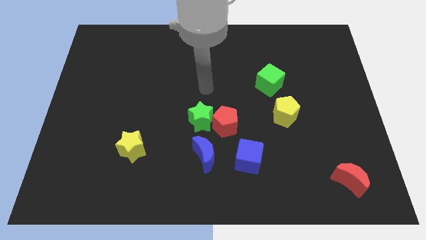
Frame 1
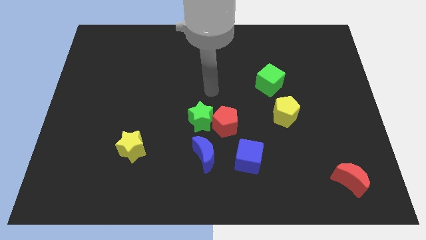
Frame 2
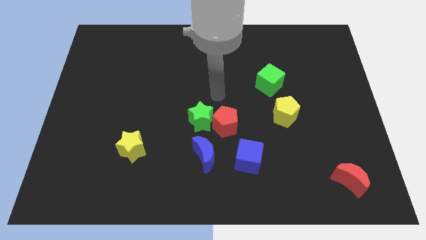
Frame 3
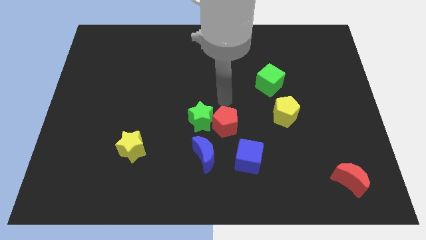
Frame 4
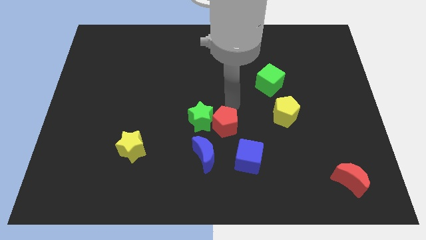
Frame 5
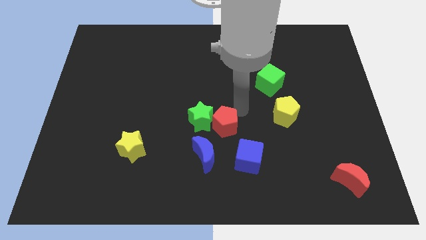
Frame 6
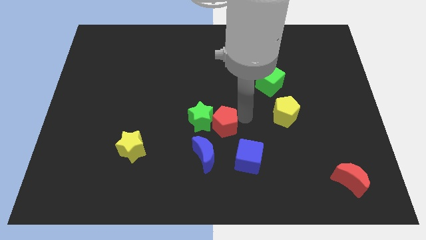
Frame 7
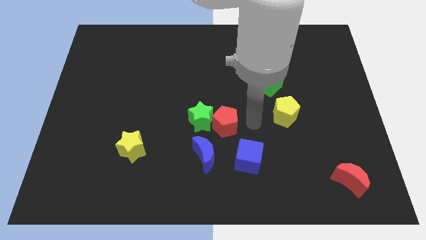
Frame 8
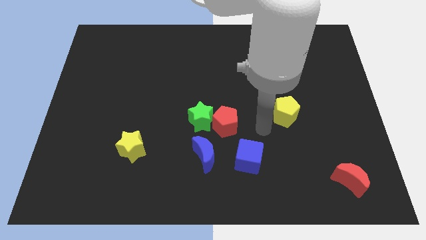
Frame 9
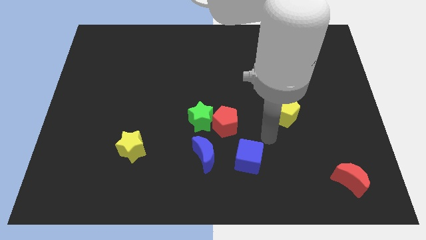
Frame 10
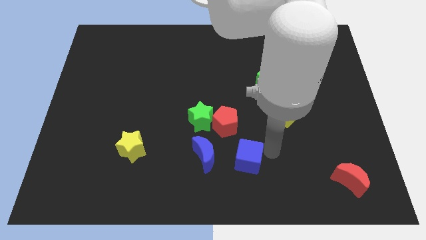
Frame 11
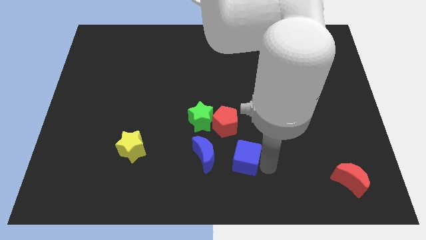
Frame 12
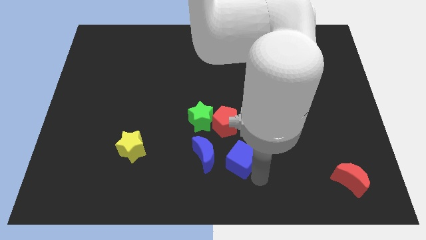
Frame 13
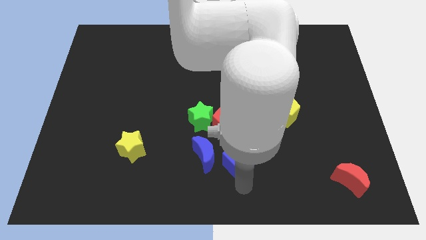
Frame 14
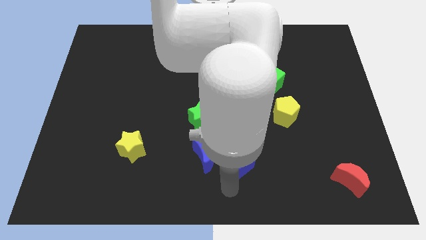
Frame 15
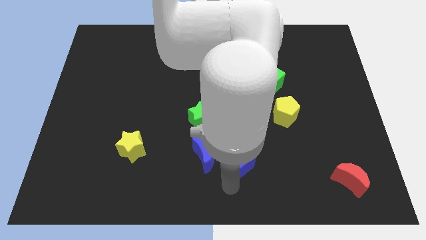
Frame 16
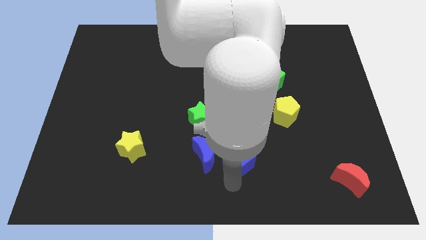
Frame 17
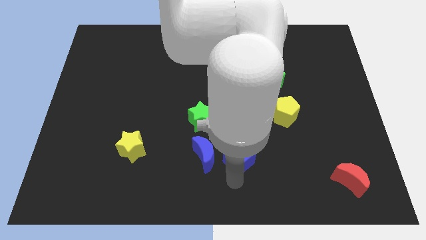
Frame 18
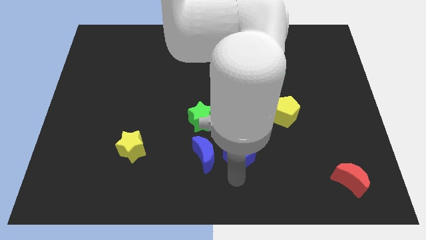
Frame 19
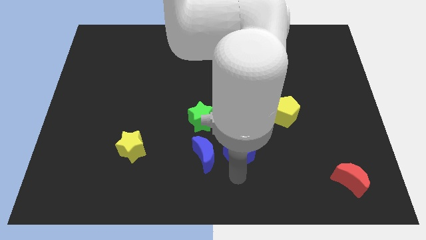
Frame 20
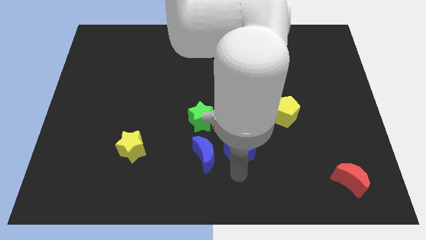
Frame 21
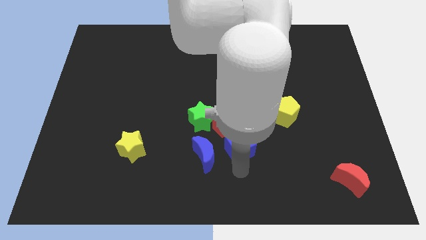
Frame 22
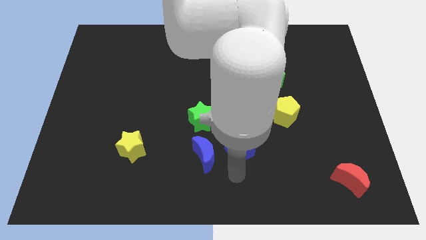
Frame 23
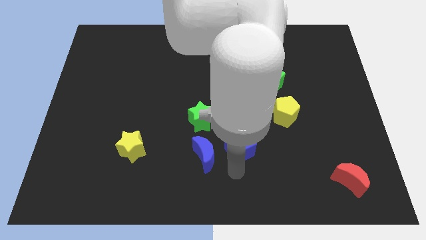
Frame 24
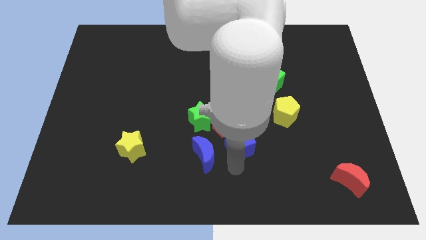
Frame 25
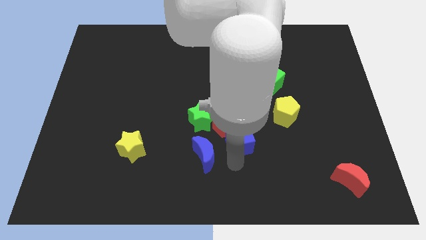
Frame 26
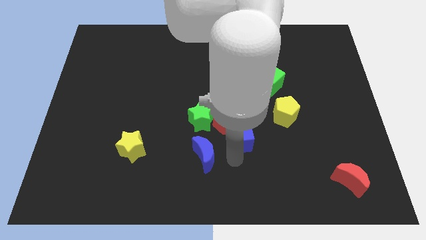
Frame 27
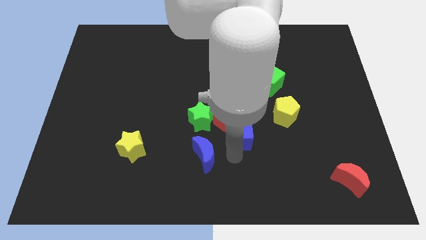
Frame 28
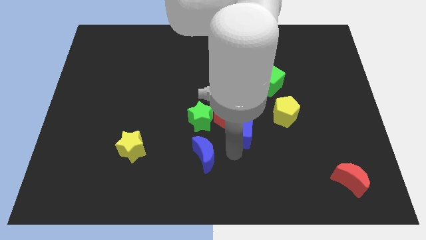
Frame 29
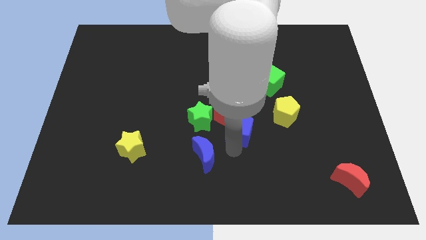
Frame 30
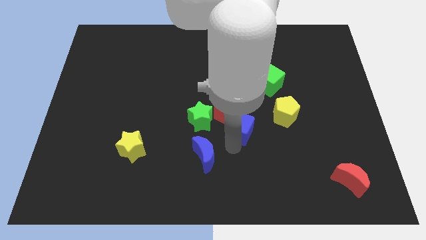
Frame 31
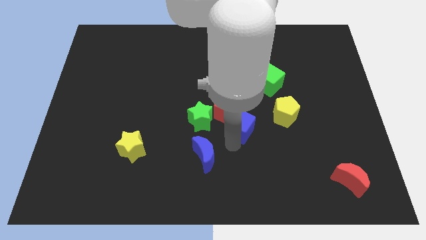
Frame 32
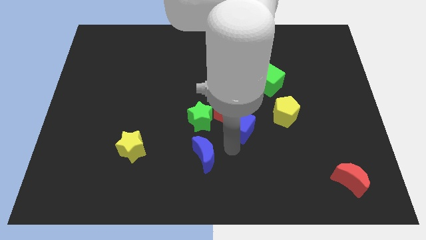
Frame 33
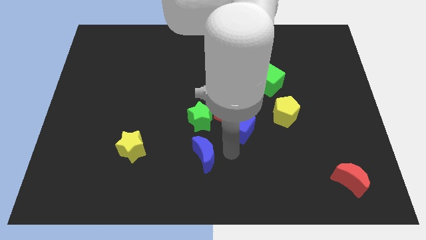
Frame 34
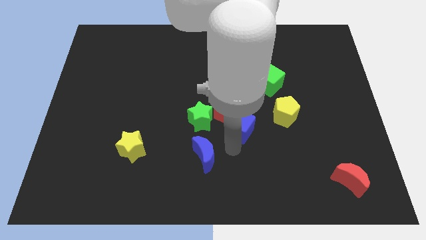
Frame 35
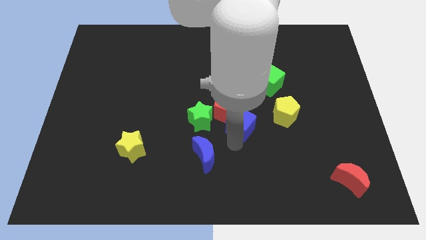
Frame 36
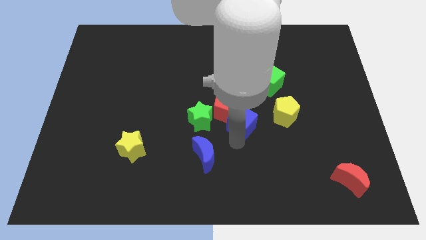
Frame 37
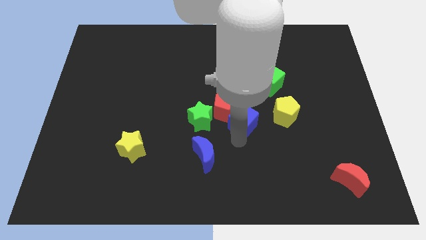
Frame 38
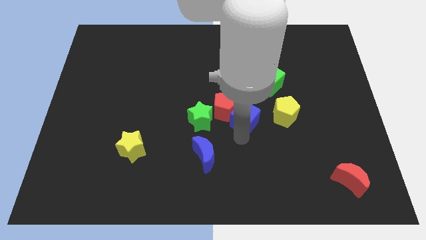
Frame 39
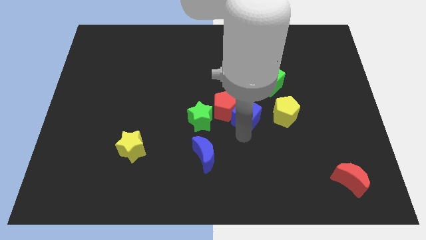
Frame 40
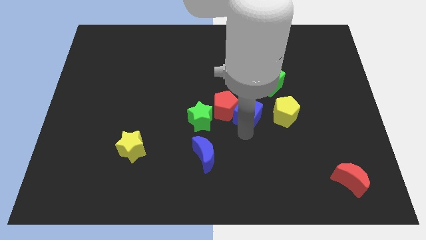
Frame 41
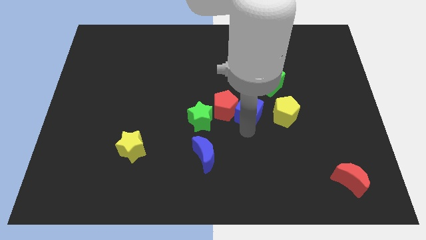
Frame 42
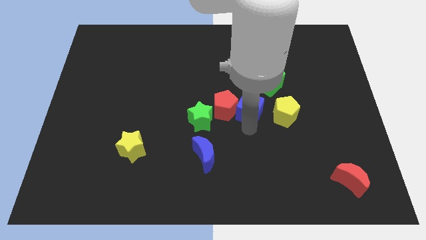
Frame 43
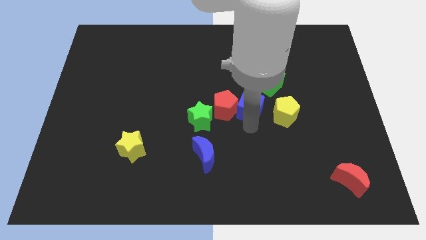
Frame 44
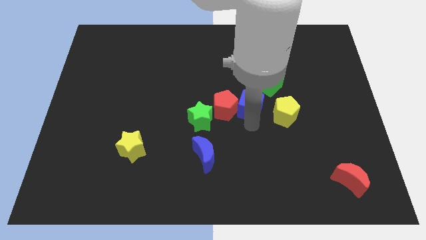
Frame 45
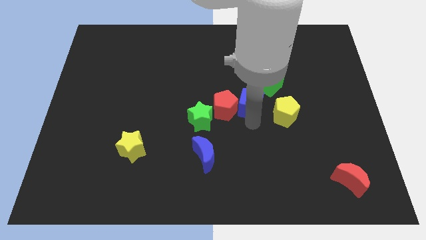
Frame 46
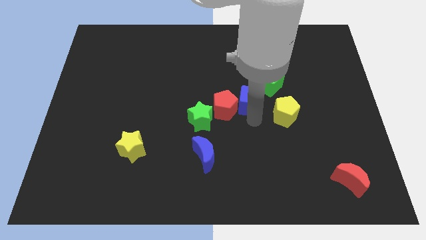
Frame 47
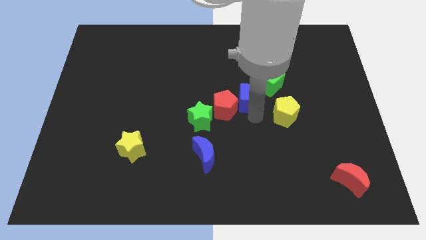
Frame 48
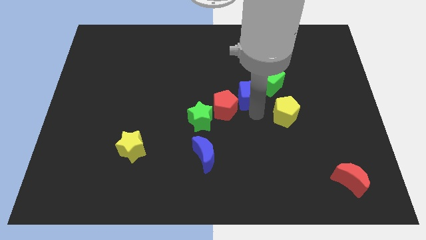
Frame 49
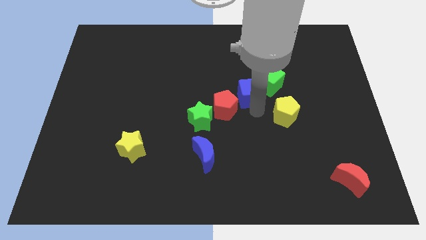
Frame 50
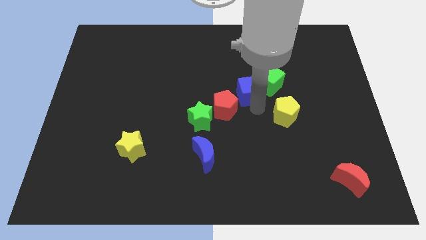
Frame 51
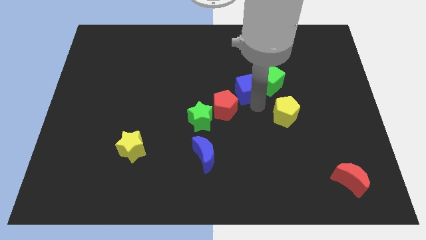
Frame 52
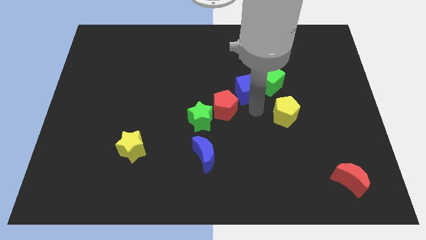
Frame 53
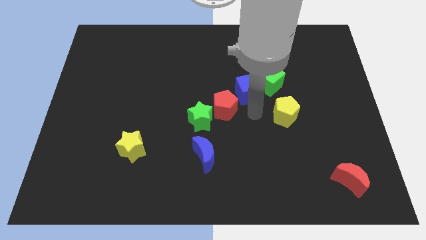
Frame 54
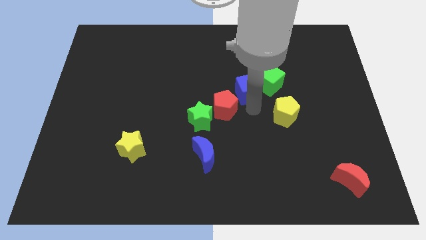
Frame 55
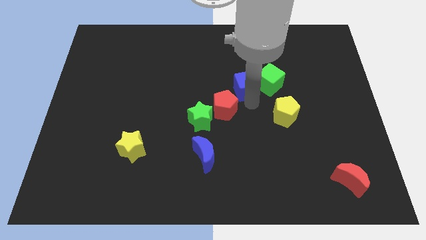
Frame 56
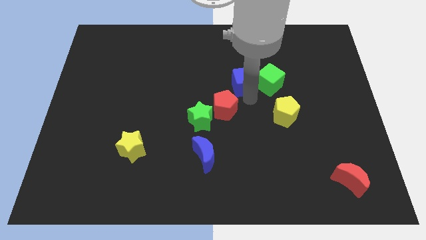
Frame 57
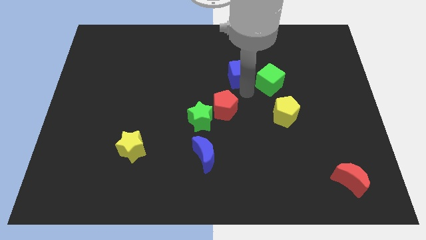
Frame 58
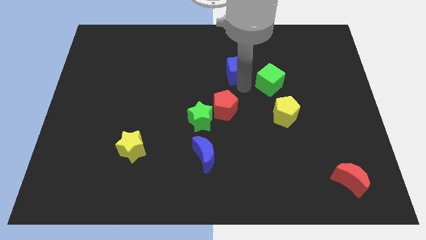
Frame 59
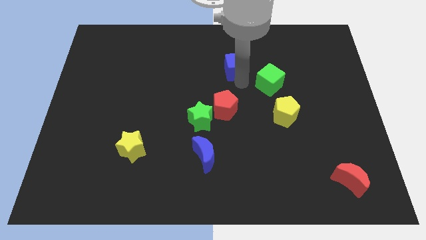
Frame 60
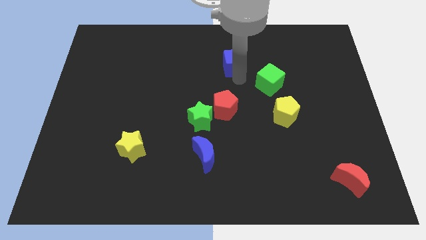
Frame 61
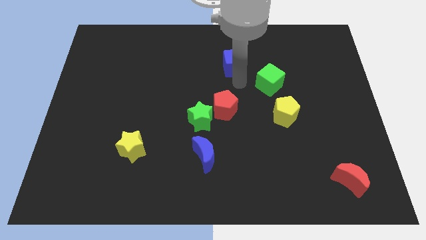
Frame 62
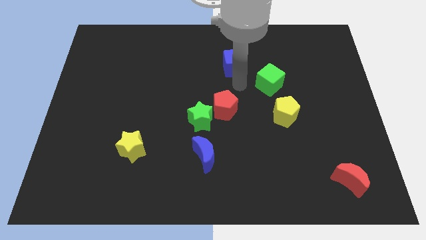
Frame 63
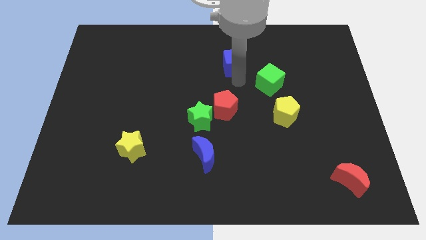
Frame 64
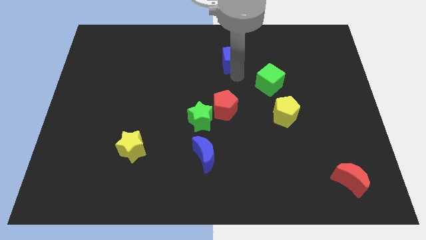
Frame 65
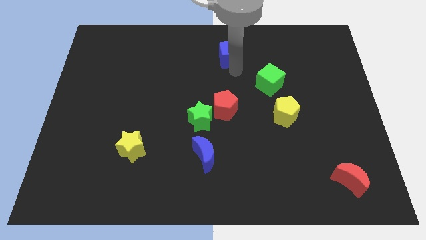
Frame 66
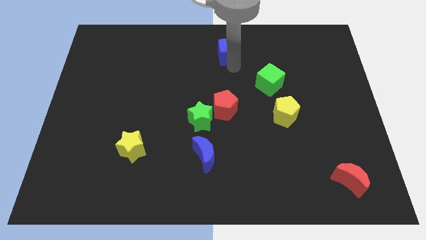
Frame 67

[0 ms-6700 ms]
push the blue cube to the top side
